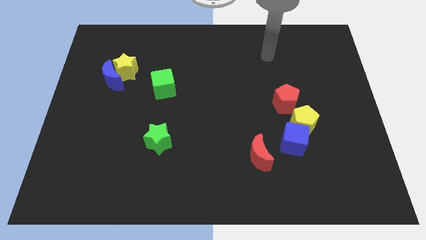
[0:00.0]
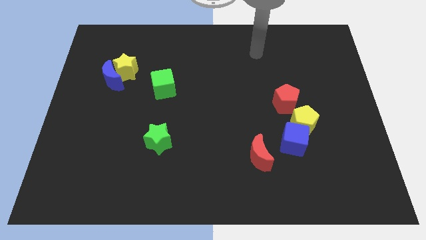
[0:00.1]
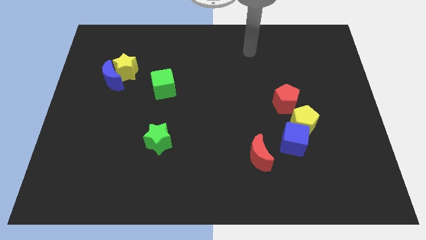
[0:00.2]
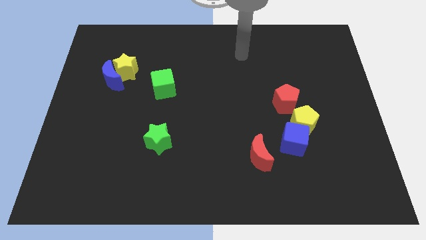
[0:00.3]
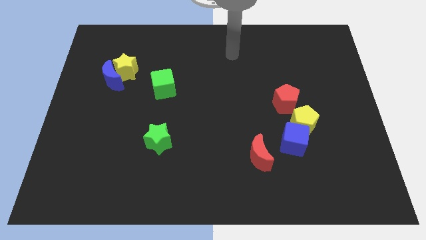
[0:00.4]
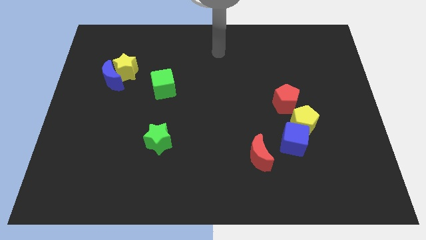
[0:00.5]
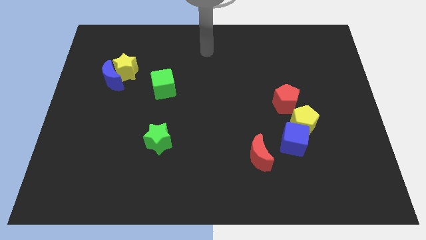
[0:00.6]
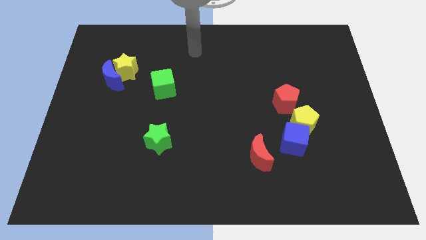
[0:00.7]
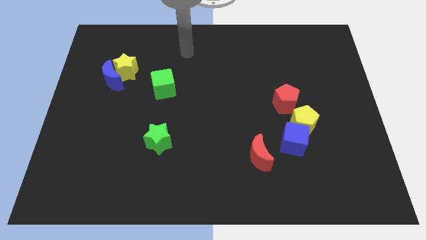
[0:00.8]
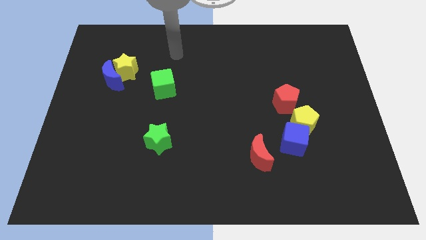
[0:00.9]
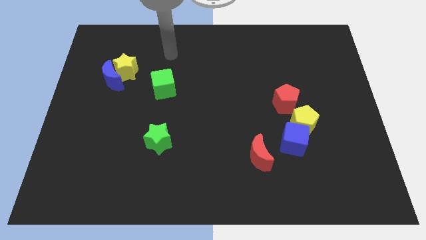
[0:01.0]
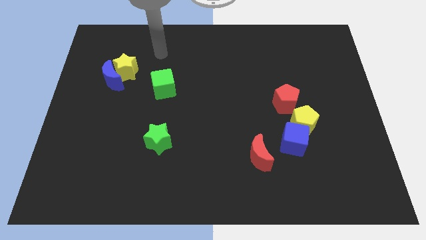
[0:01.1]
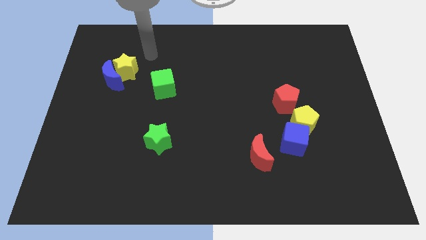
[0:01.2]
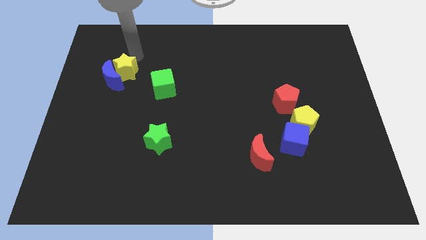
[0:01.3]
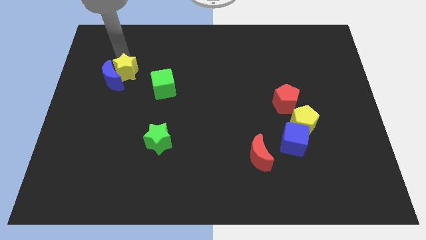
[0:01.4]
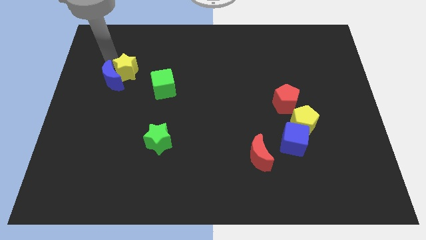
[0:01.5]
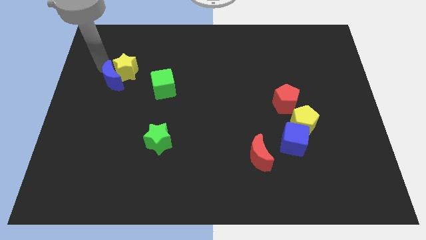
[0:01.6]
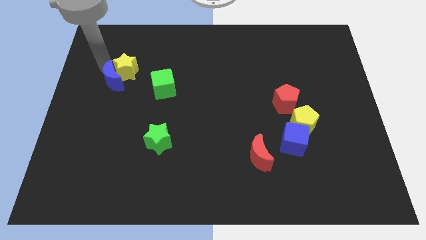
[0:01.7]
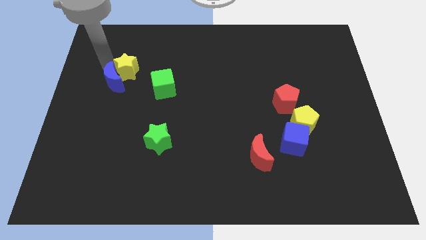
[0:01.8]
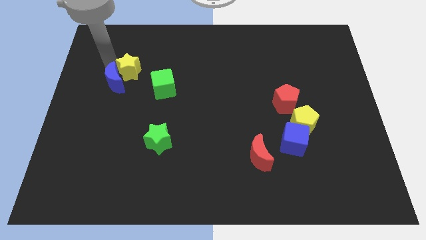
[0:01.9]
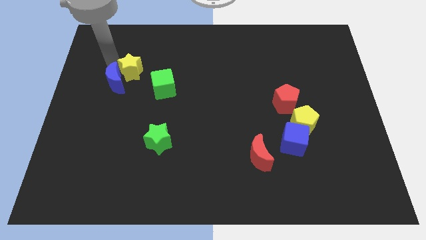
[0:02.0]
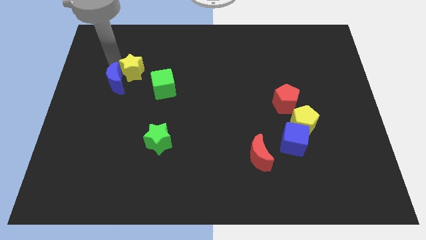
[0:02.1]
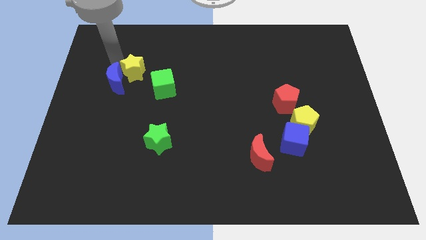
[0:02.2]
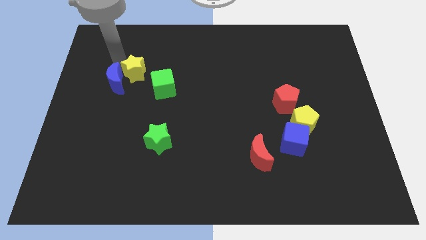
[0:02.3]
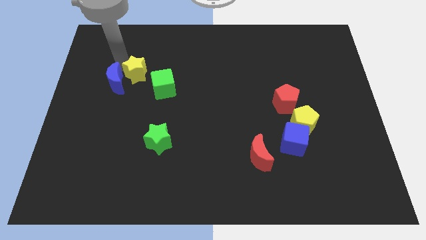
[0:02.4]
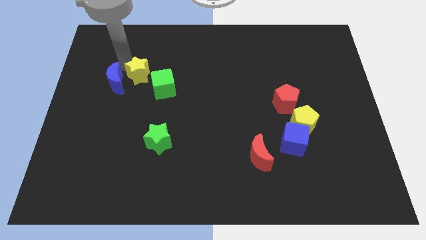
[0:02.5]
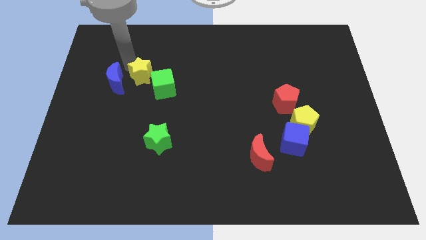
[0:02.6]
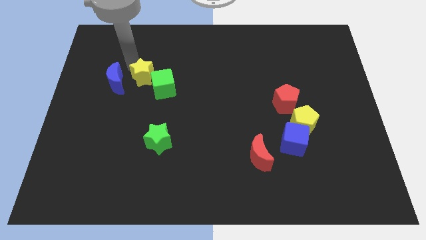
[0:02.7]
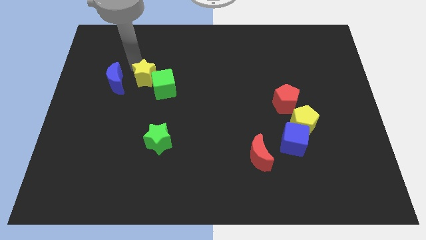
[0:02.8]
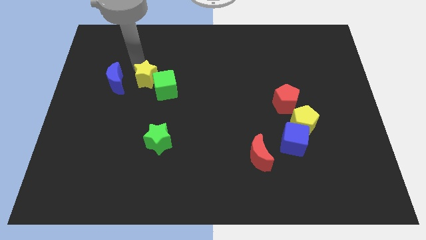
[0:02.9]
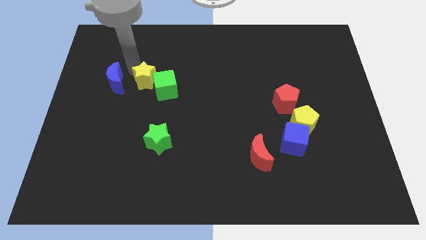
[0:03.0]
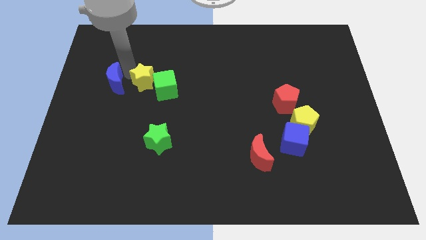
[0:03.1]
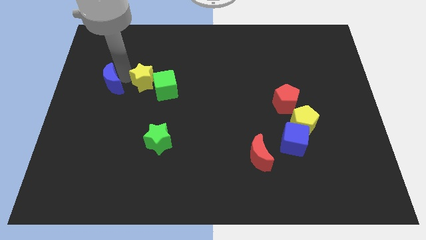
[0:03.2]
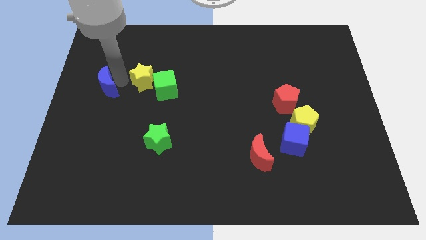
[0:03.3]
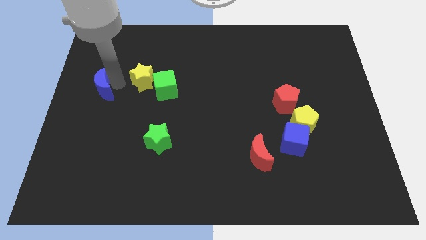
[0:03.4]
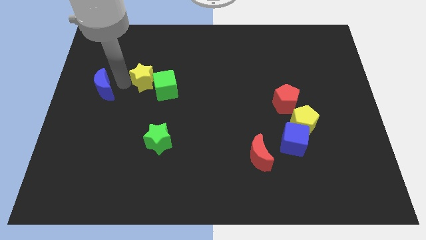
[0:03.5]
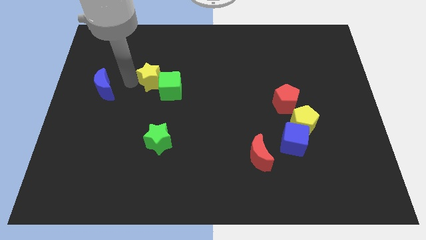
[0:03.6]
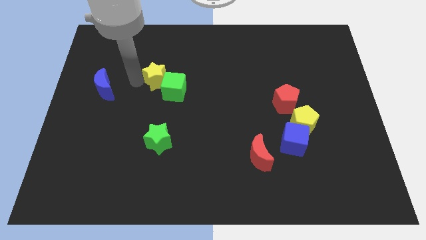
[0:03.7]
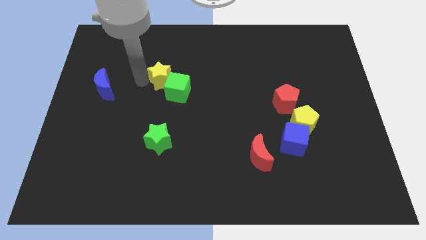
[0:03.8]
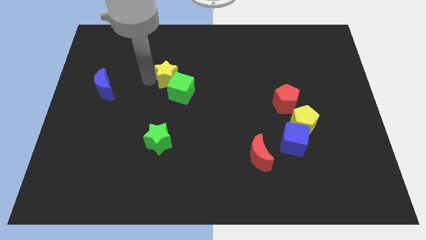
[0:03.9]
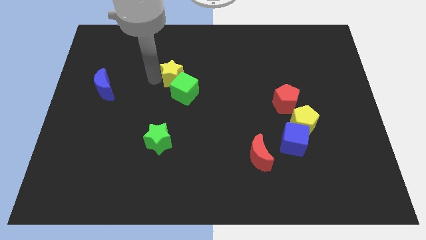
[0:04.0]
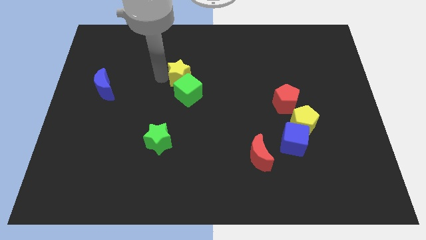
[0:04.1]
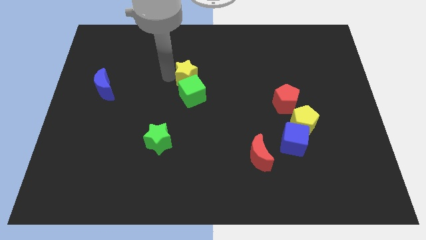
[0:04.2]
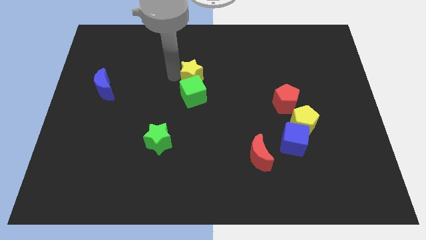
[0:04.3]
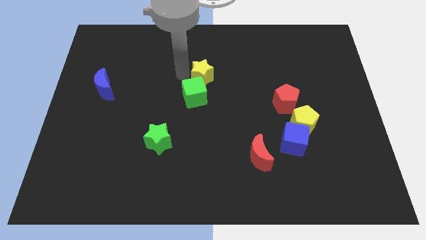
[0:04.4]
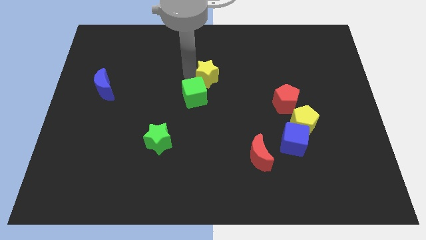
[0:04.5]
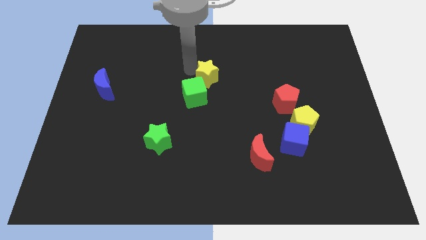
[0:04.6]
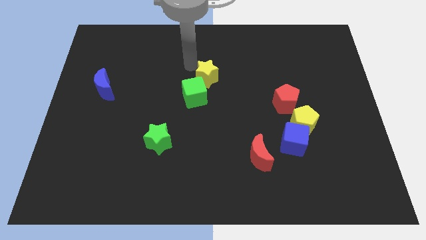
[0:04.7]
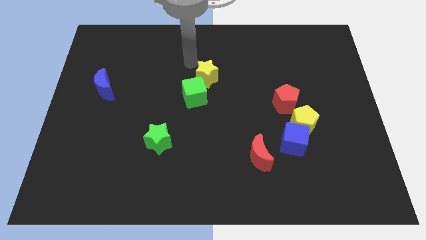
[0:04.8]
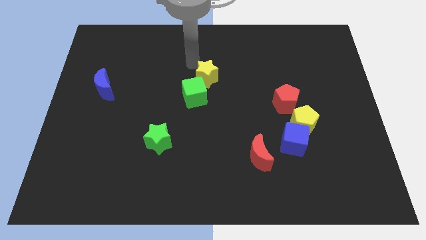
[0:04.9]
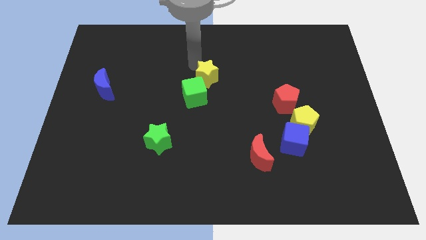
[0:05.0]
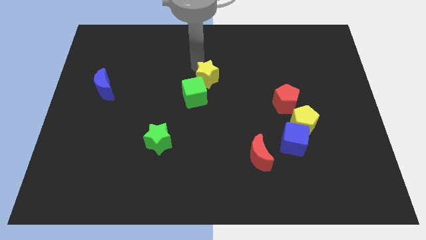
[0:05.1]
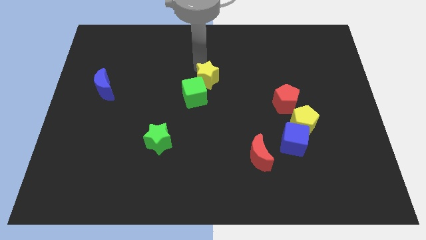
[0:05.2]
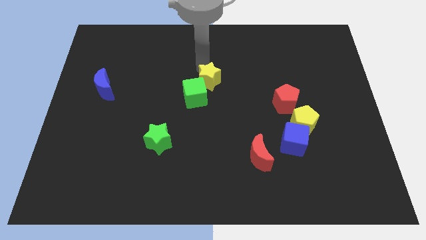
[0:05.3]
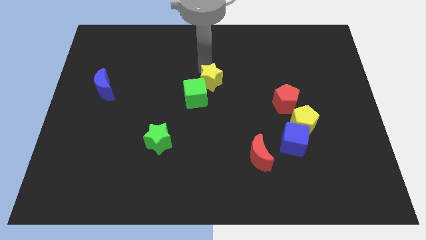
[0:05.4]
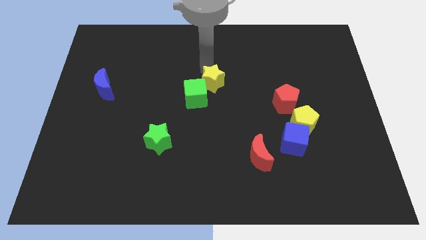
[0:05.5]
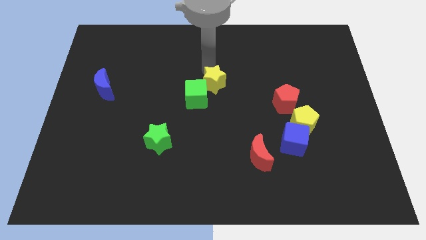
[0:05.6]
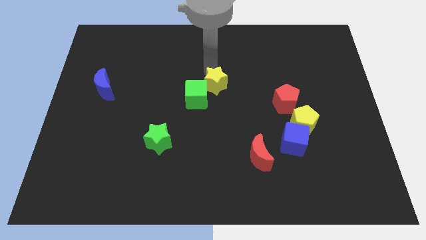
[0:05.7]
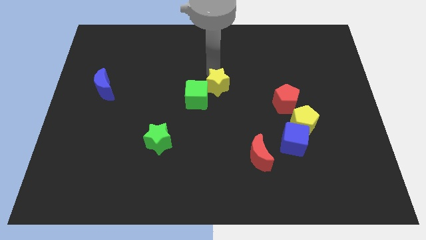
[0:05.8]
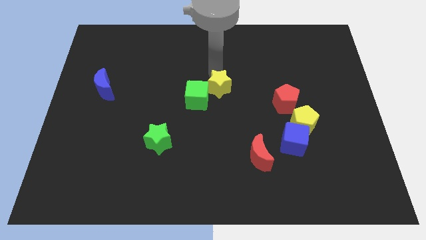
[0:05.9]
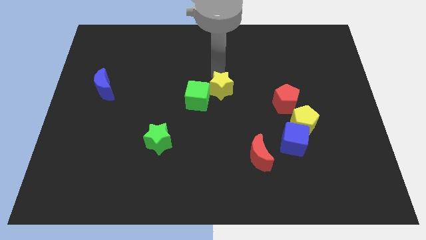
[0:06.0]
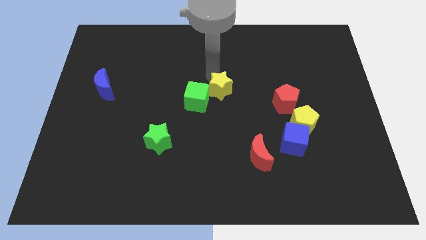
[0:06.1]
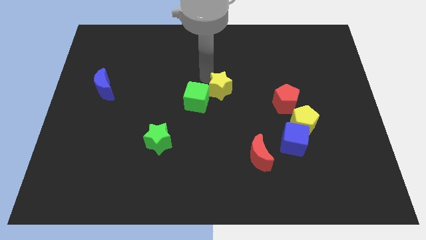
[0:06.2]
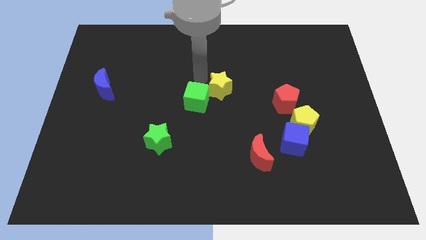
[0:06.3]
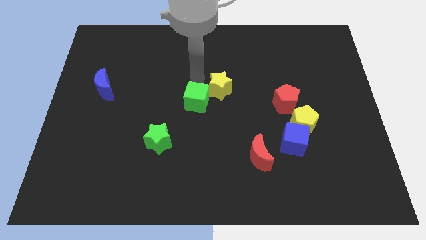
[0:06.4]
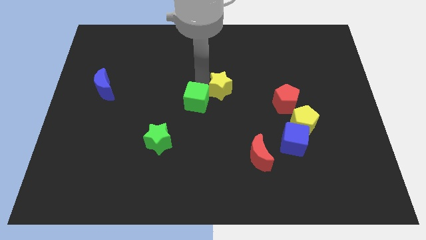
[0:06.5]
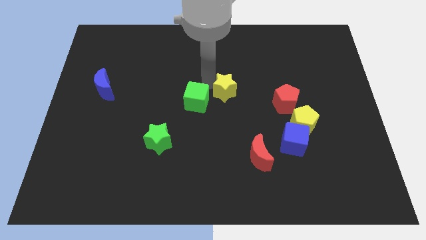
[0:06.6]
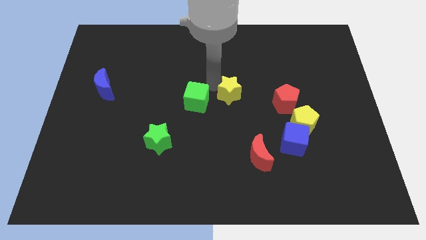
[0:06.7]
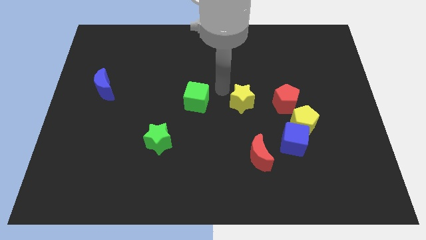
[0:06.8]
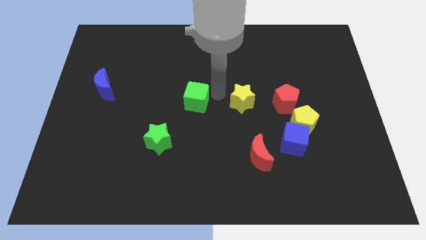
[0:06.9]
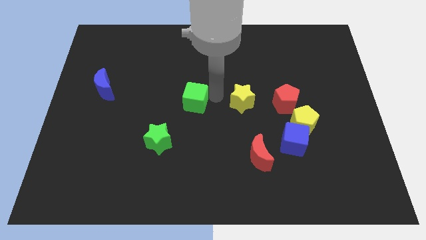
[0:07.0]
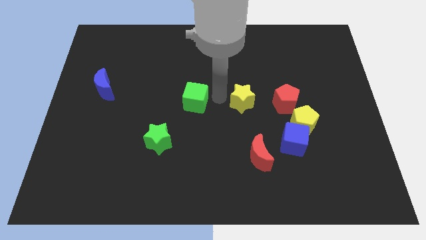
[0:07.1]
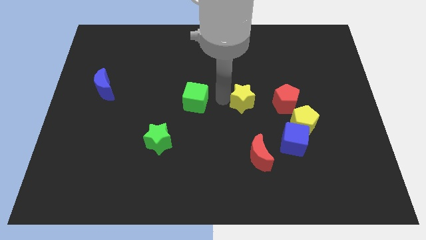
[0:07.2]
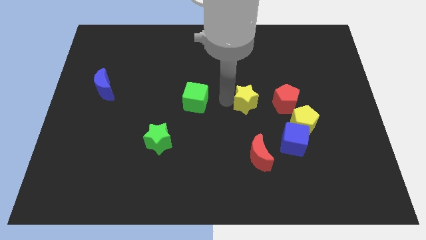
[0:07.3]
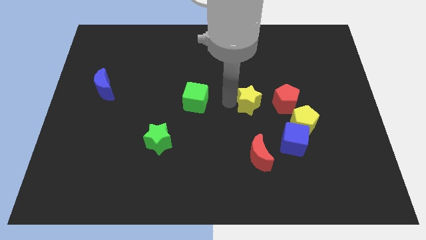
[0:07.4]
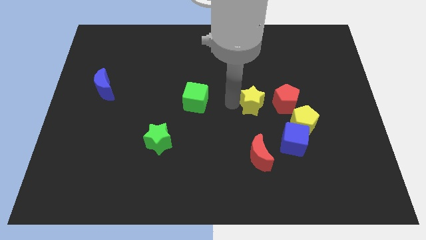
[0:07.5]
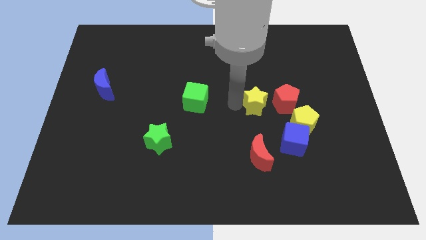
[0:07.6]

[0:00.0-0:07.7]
push the yellow star to the top left side of the yellow pentagon
